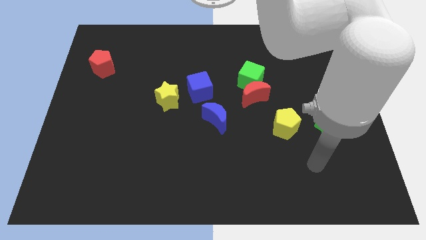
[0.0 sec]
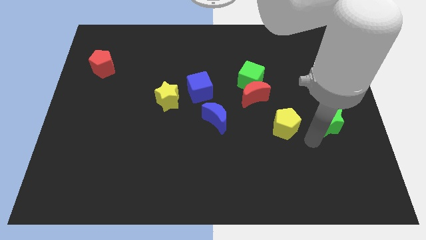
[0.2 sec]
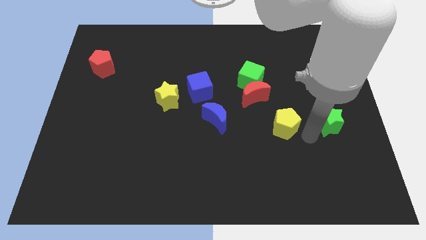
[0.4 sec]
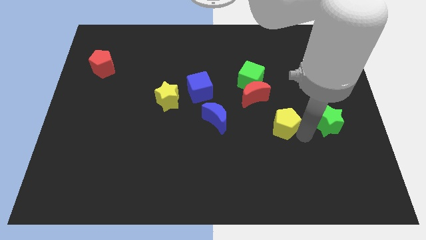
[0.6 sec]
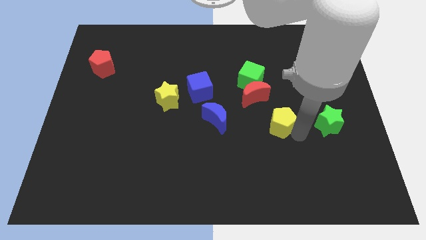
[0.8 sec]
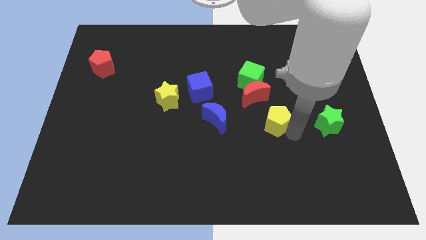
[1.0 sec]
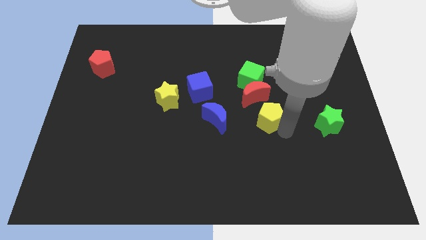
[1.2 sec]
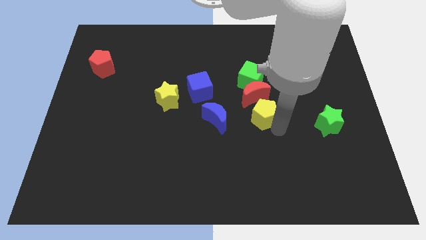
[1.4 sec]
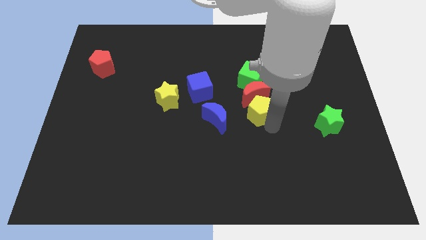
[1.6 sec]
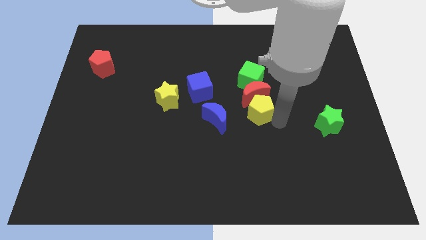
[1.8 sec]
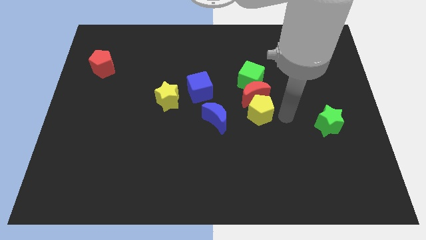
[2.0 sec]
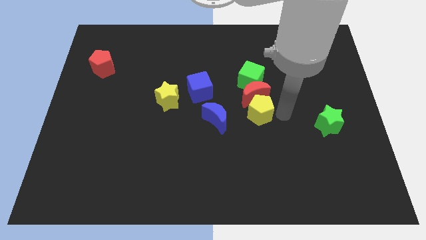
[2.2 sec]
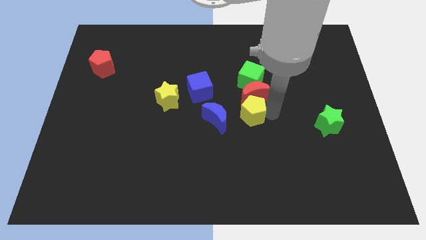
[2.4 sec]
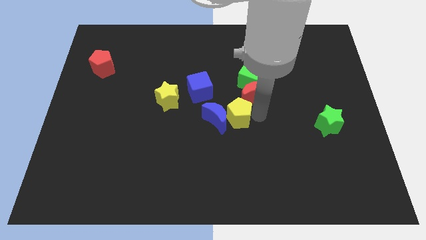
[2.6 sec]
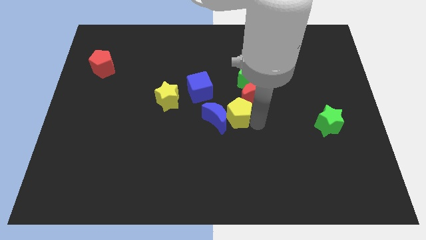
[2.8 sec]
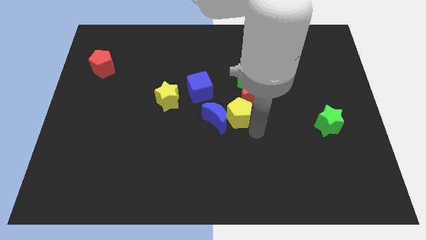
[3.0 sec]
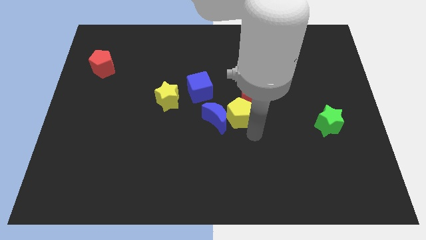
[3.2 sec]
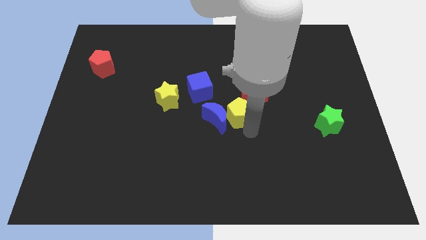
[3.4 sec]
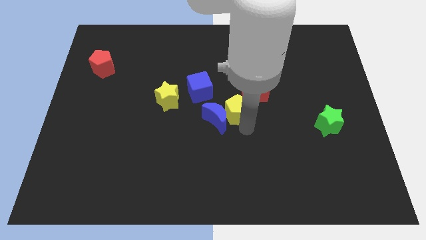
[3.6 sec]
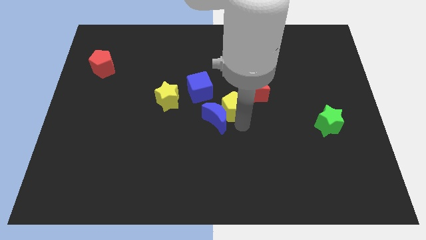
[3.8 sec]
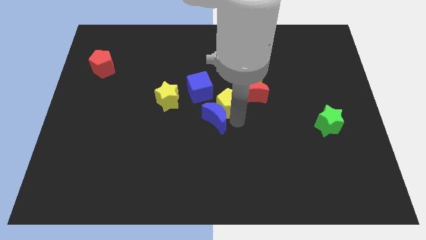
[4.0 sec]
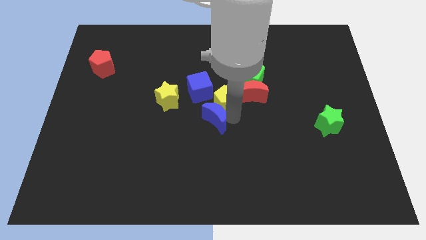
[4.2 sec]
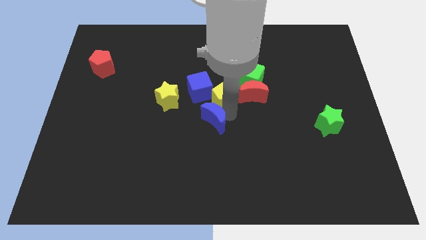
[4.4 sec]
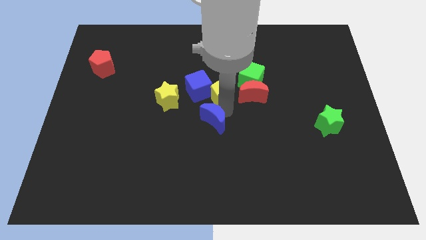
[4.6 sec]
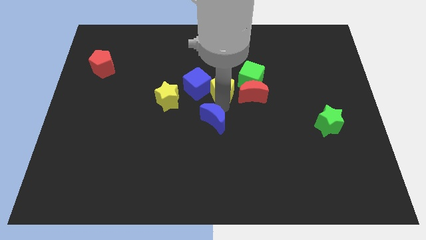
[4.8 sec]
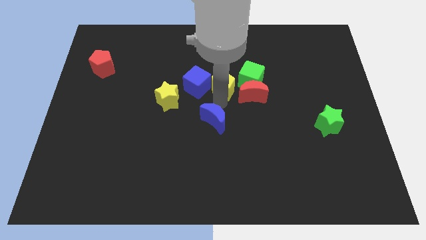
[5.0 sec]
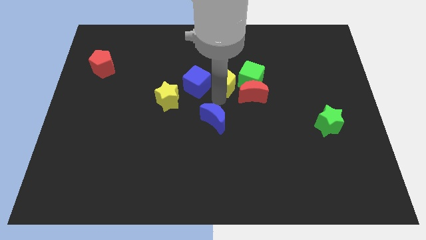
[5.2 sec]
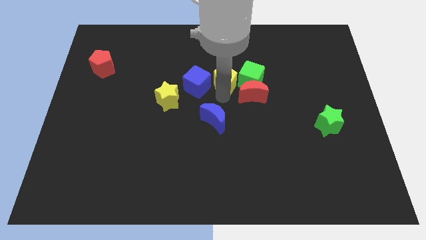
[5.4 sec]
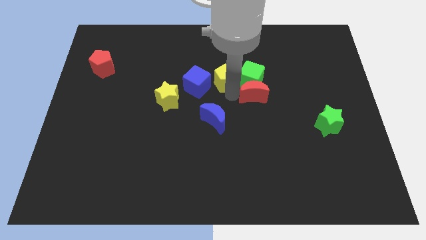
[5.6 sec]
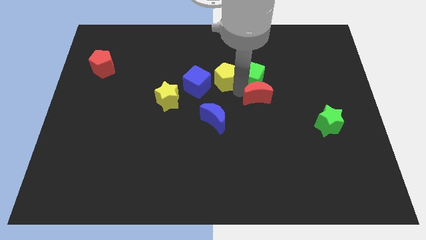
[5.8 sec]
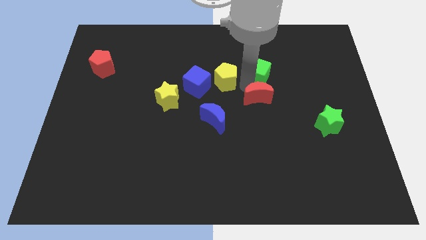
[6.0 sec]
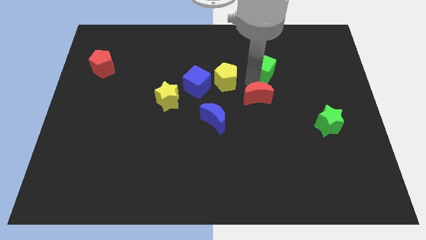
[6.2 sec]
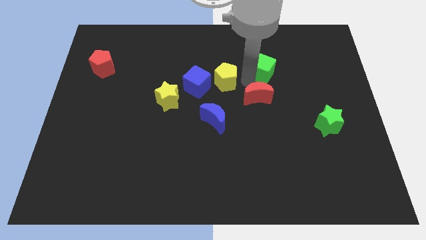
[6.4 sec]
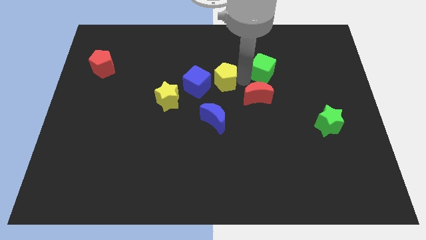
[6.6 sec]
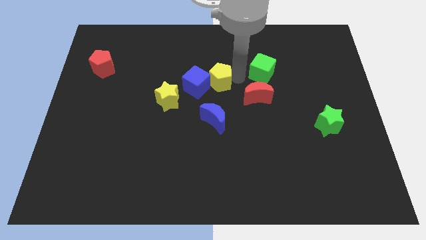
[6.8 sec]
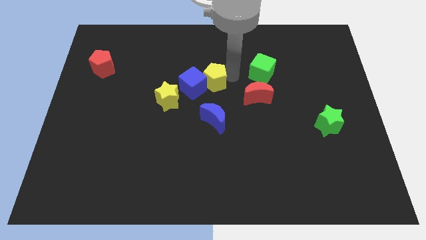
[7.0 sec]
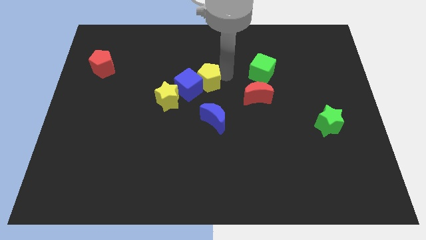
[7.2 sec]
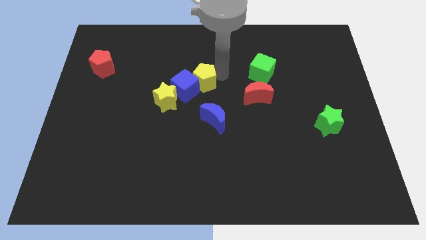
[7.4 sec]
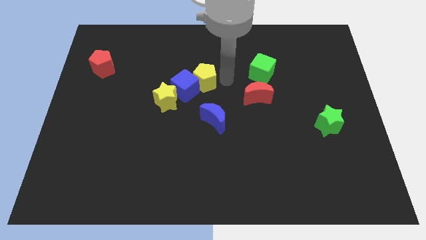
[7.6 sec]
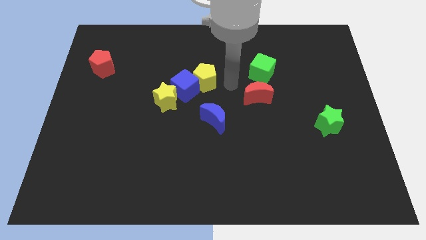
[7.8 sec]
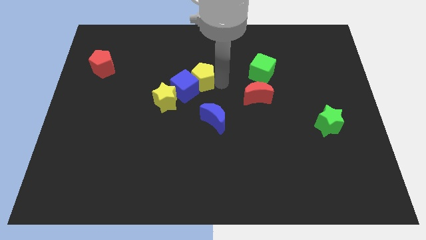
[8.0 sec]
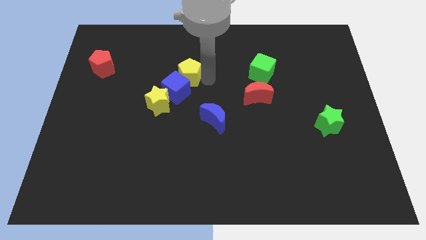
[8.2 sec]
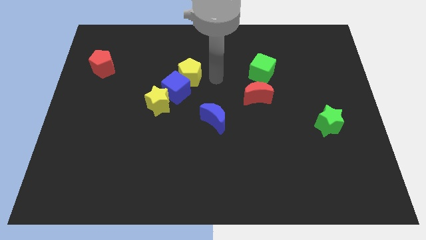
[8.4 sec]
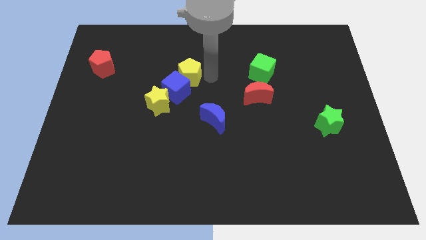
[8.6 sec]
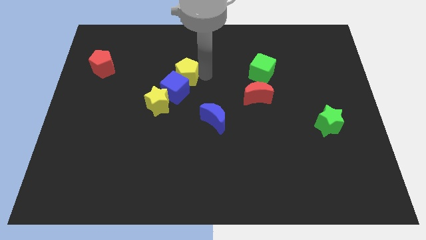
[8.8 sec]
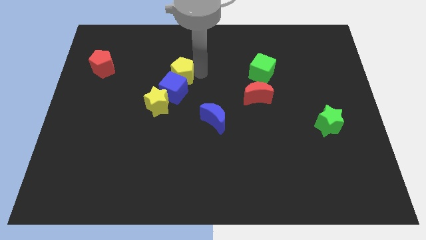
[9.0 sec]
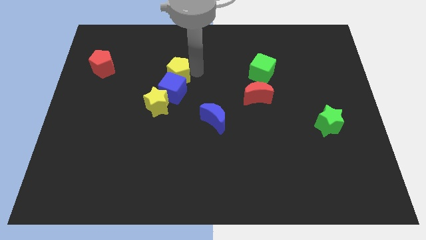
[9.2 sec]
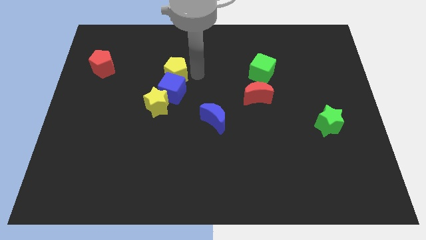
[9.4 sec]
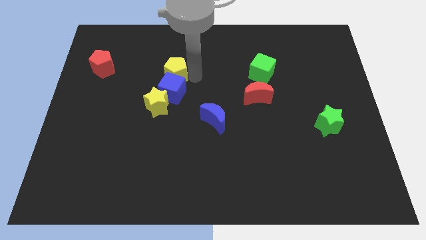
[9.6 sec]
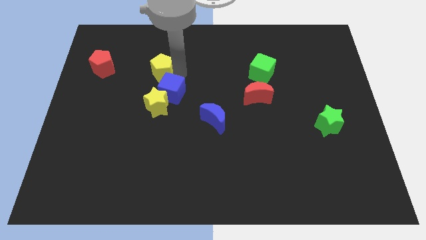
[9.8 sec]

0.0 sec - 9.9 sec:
slide the yellow pentagon to the right side of the red pentagon

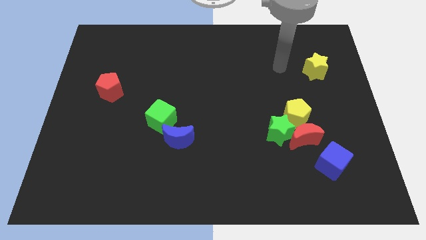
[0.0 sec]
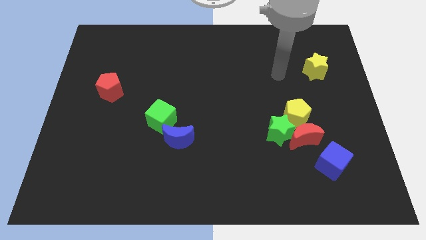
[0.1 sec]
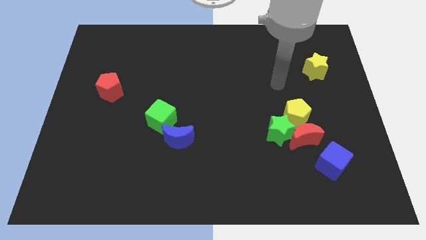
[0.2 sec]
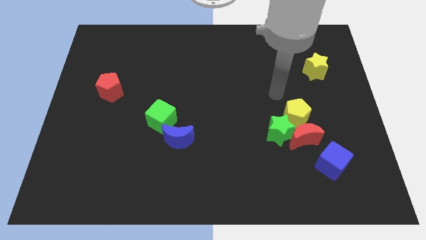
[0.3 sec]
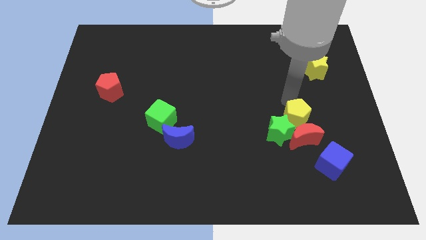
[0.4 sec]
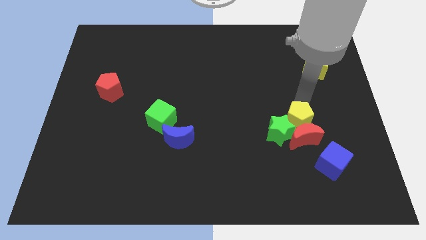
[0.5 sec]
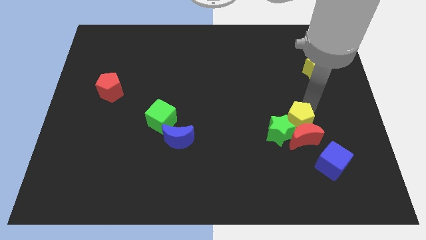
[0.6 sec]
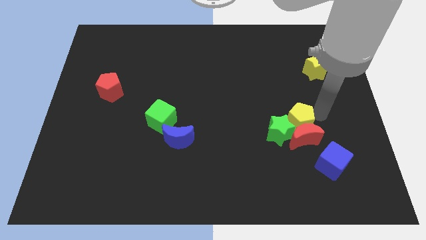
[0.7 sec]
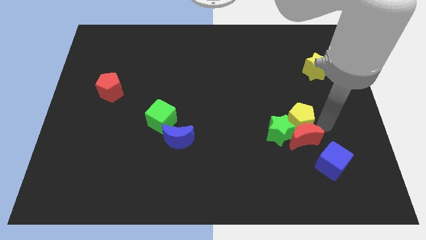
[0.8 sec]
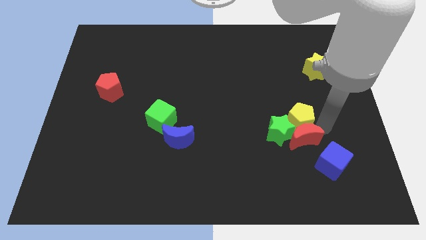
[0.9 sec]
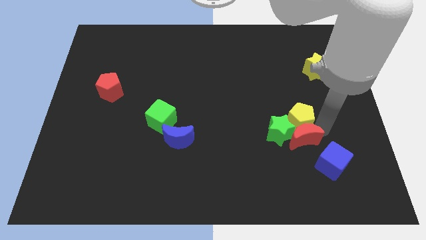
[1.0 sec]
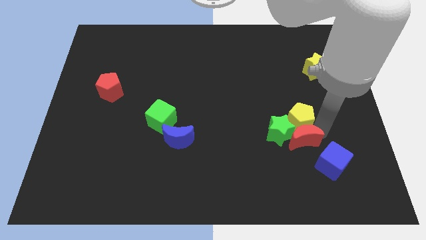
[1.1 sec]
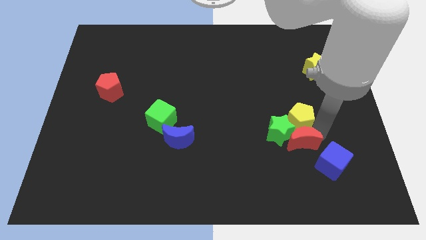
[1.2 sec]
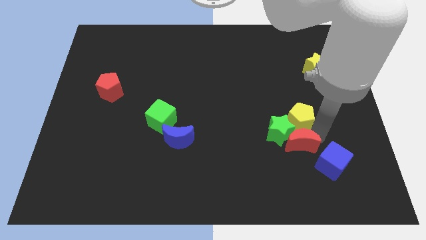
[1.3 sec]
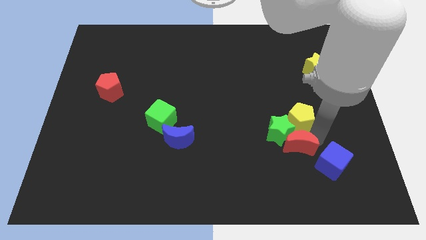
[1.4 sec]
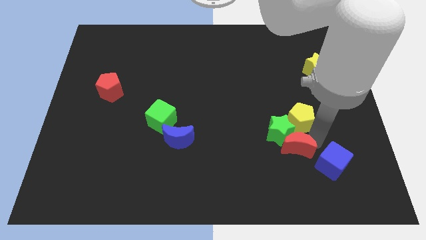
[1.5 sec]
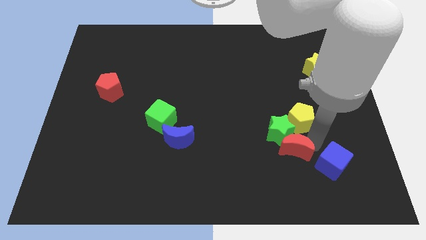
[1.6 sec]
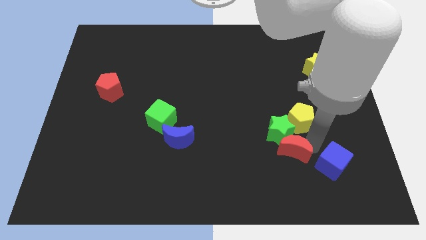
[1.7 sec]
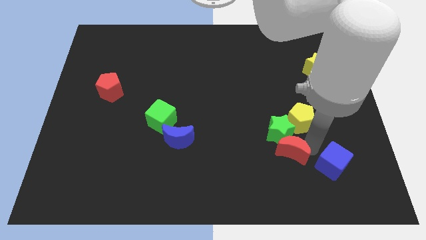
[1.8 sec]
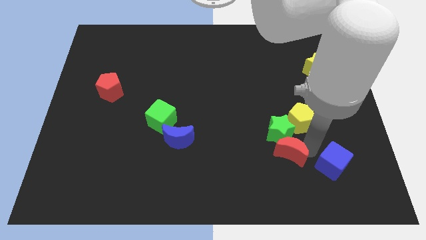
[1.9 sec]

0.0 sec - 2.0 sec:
slide the red moon to the bottom left of the green star
